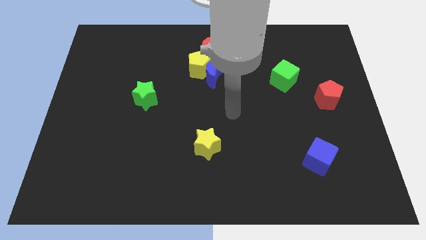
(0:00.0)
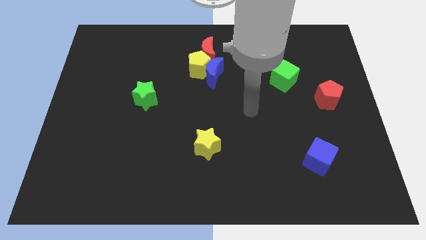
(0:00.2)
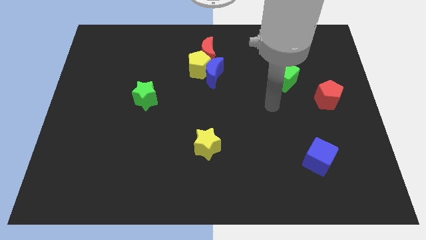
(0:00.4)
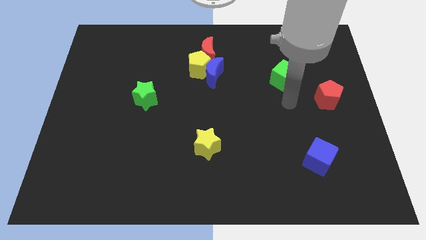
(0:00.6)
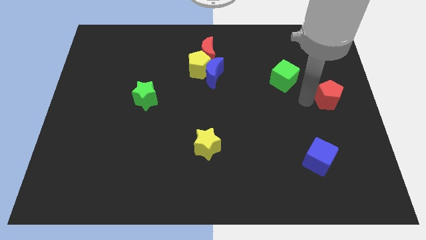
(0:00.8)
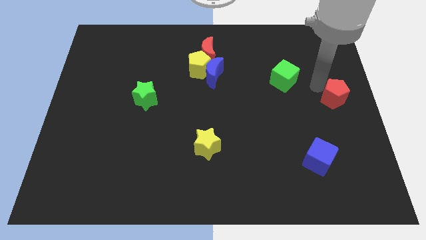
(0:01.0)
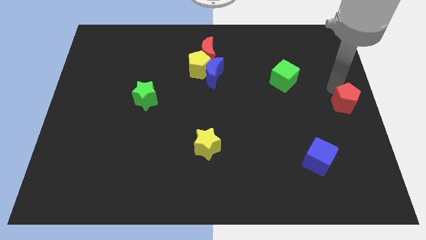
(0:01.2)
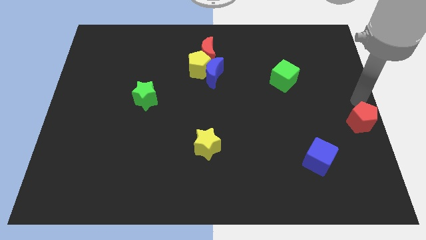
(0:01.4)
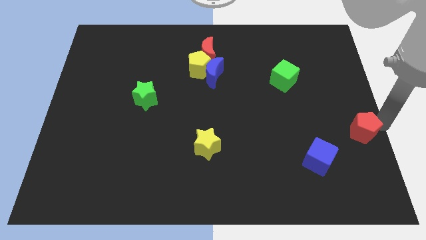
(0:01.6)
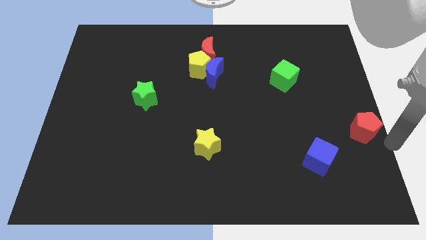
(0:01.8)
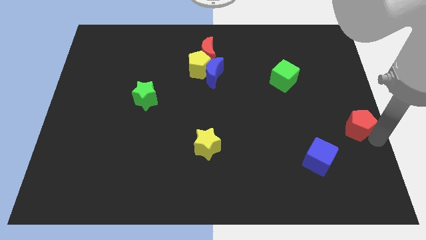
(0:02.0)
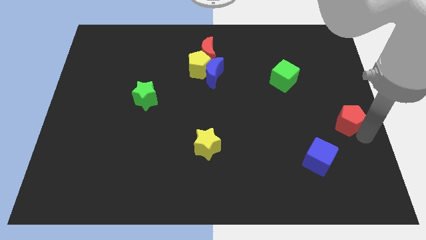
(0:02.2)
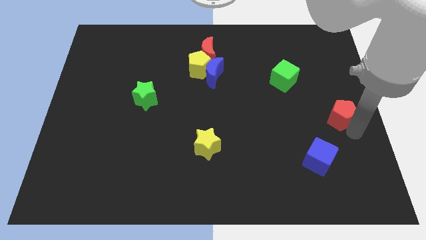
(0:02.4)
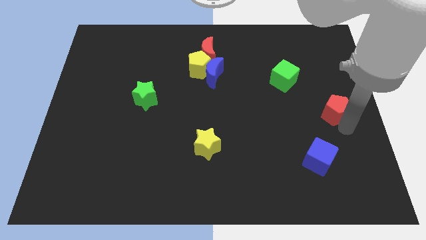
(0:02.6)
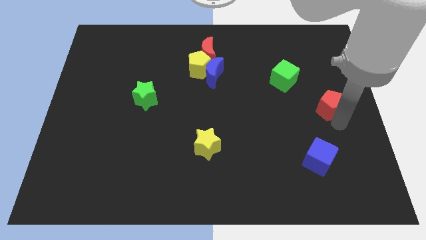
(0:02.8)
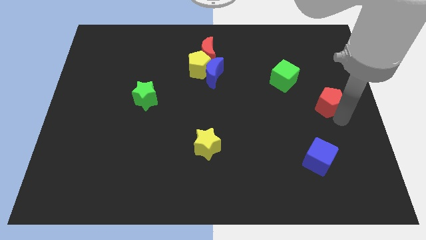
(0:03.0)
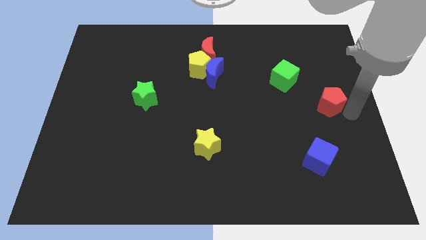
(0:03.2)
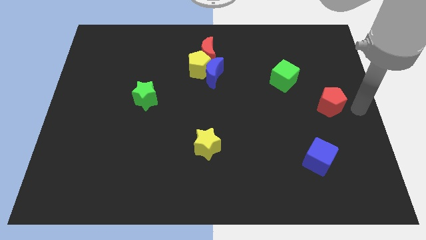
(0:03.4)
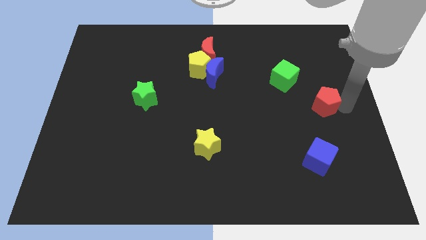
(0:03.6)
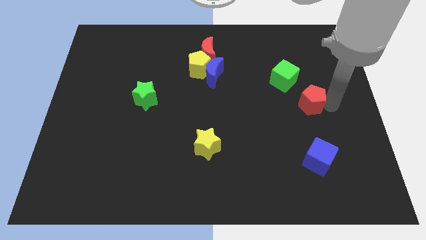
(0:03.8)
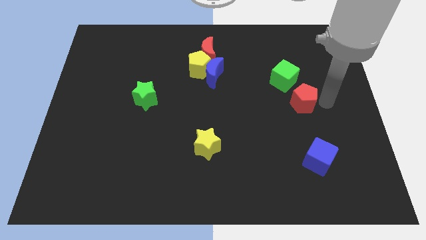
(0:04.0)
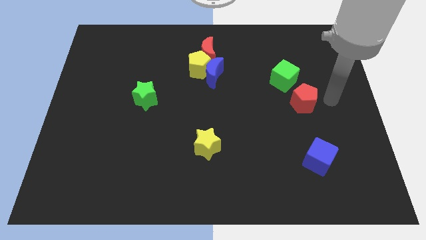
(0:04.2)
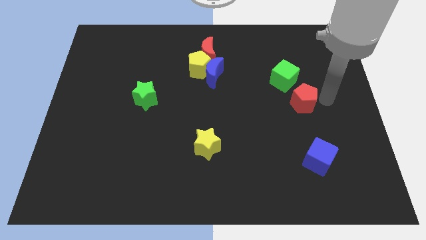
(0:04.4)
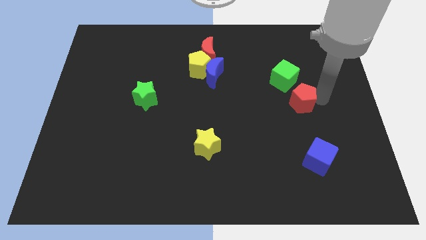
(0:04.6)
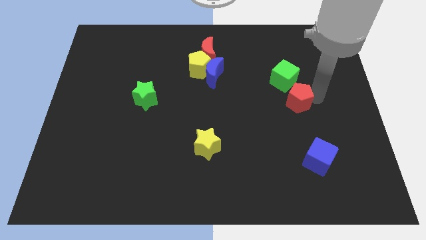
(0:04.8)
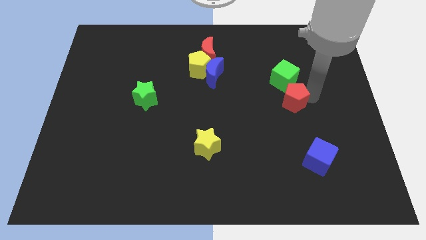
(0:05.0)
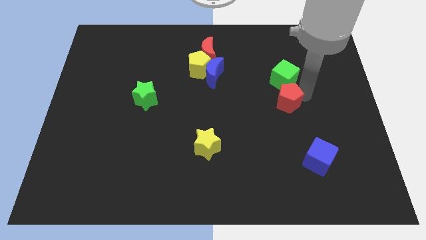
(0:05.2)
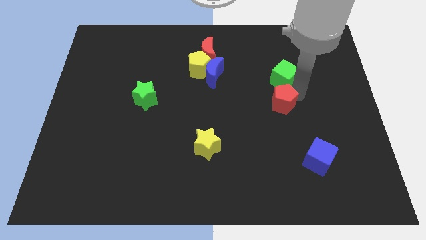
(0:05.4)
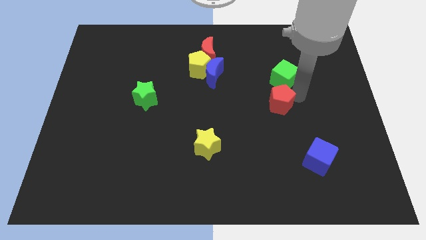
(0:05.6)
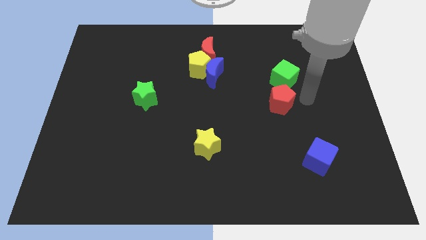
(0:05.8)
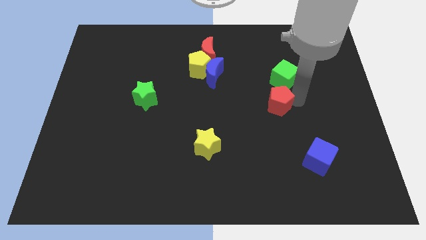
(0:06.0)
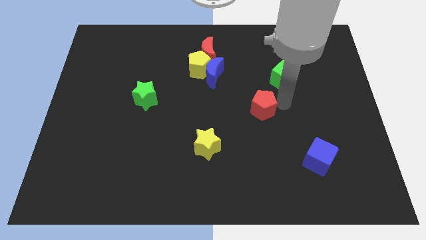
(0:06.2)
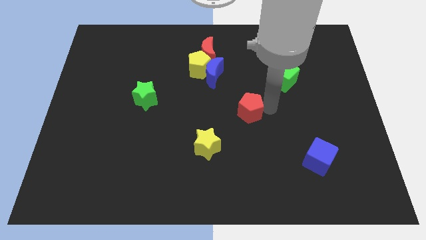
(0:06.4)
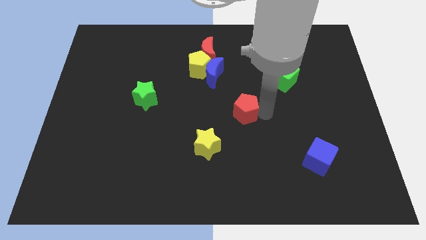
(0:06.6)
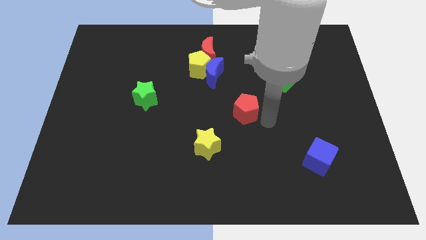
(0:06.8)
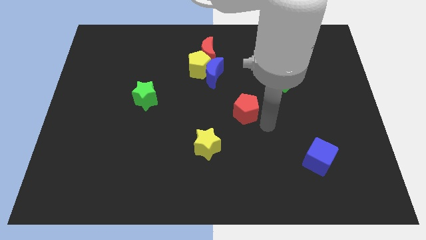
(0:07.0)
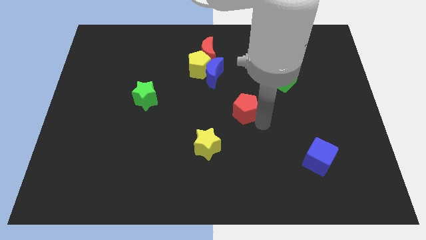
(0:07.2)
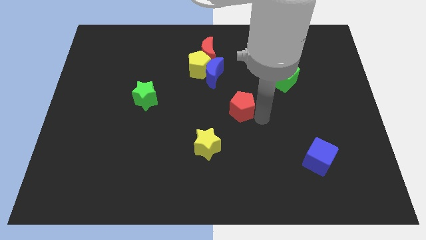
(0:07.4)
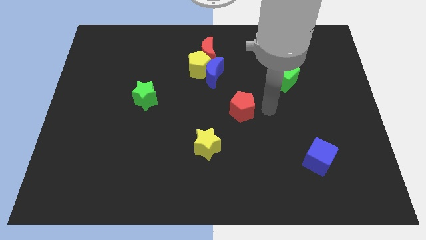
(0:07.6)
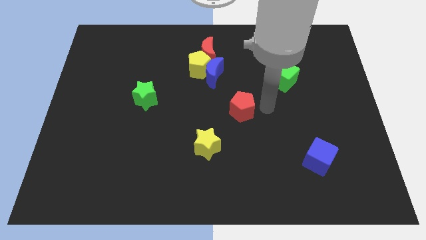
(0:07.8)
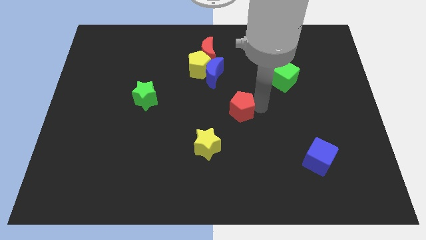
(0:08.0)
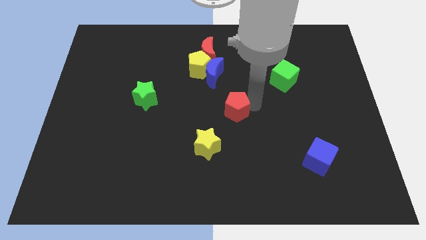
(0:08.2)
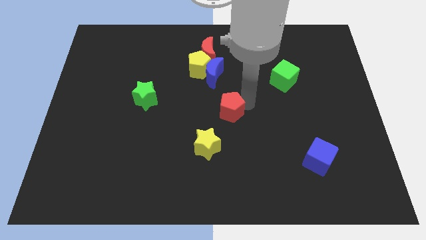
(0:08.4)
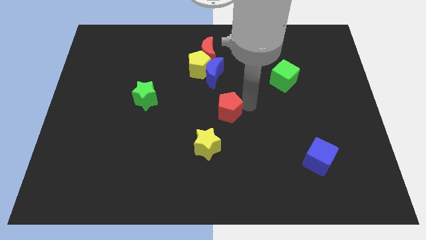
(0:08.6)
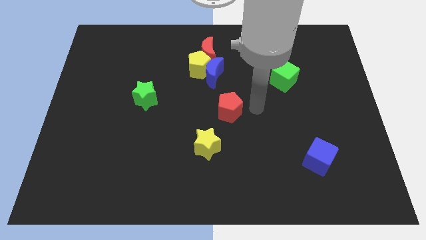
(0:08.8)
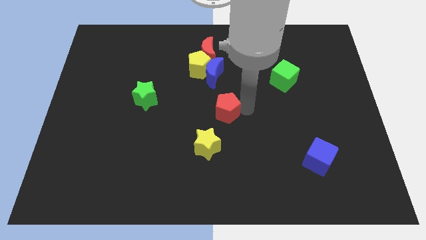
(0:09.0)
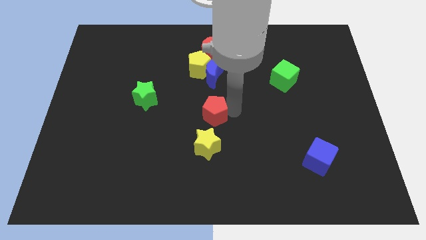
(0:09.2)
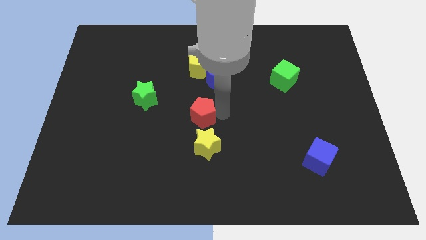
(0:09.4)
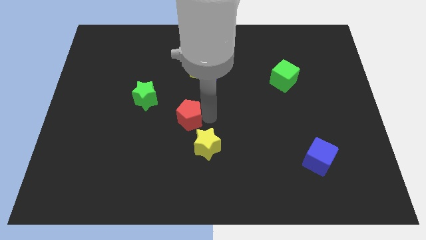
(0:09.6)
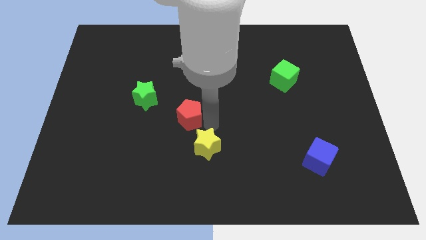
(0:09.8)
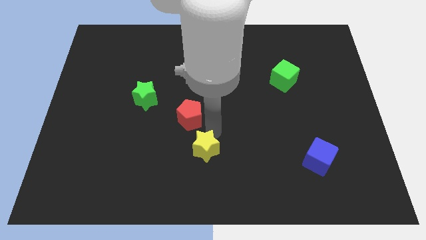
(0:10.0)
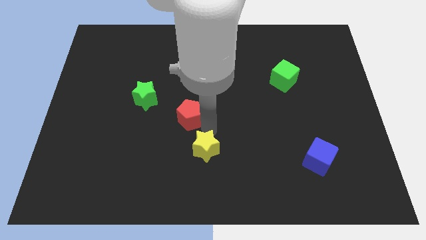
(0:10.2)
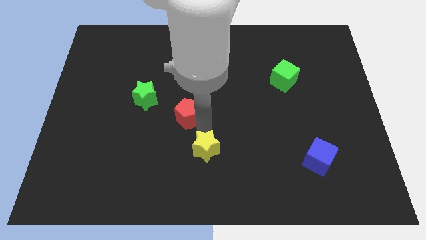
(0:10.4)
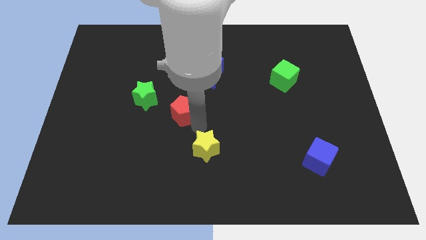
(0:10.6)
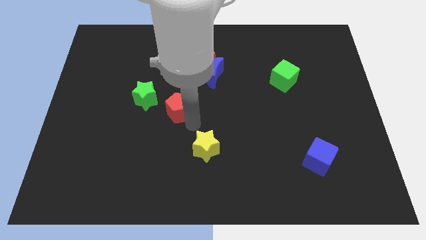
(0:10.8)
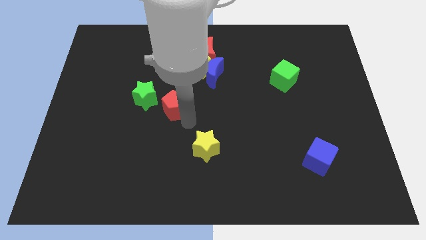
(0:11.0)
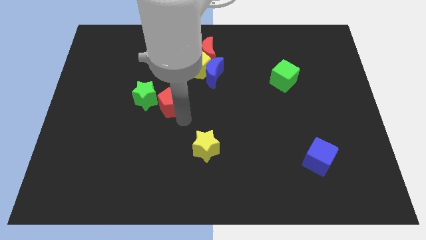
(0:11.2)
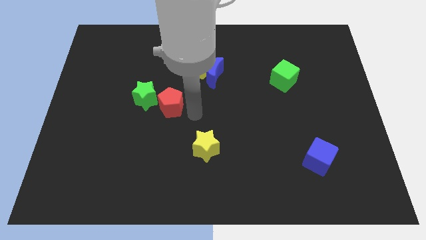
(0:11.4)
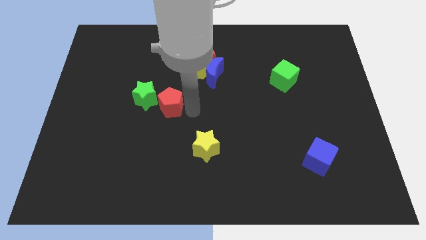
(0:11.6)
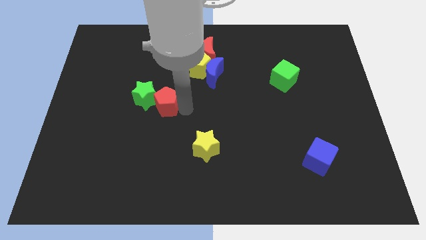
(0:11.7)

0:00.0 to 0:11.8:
slide the red pentagon to the green star

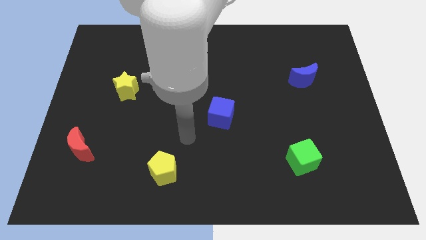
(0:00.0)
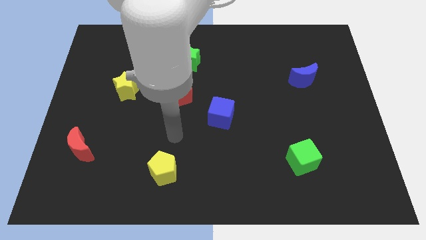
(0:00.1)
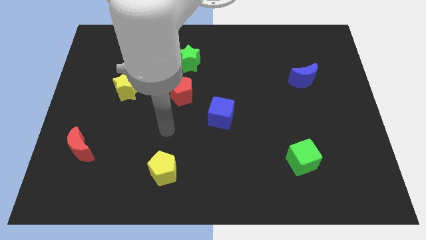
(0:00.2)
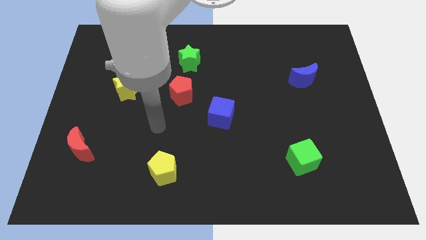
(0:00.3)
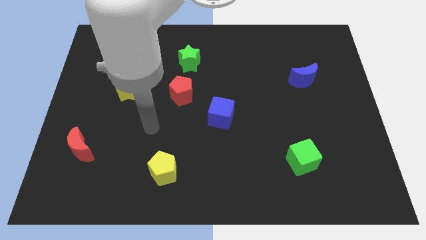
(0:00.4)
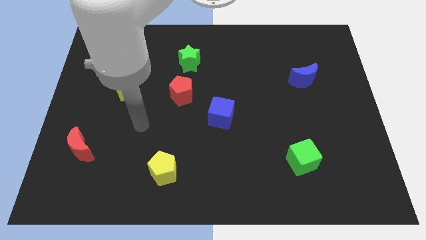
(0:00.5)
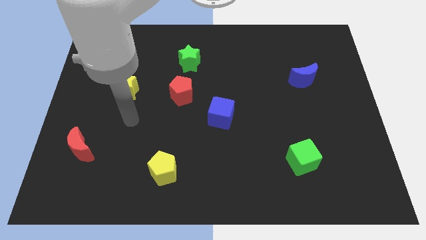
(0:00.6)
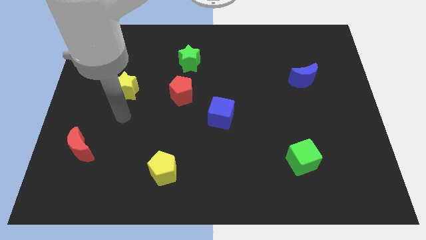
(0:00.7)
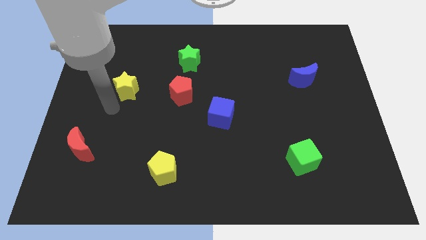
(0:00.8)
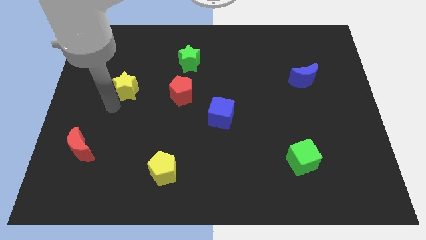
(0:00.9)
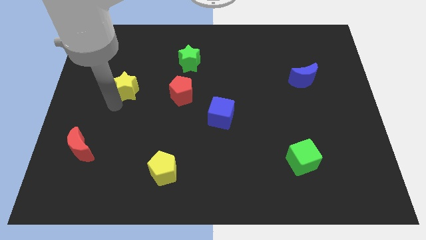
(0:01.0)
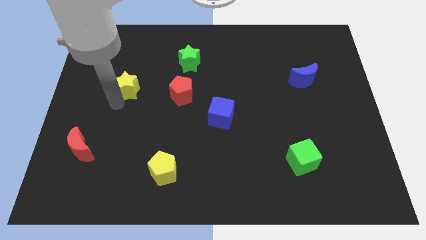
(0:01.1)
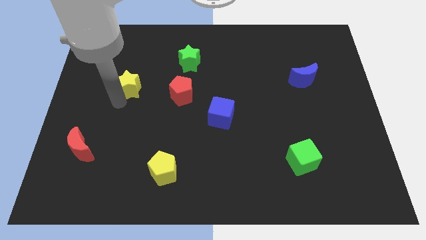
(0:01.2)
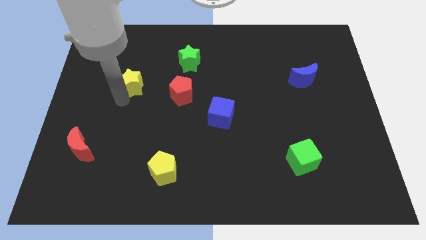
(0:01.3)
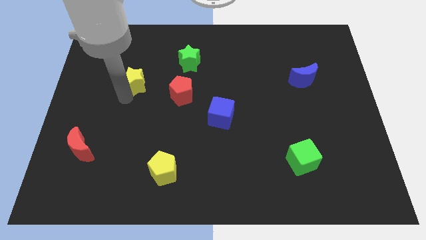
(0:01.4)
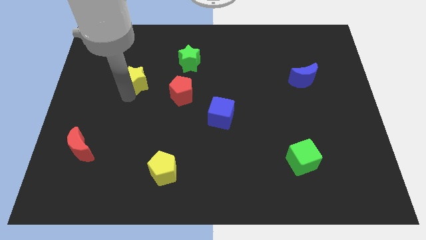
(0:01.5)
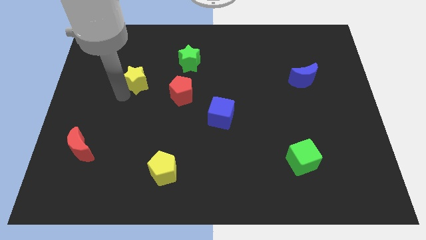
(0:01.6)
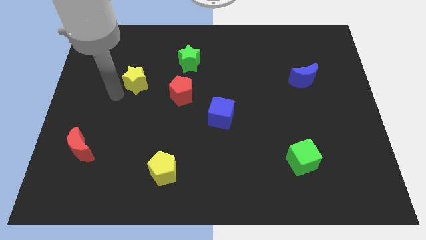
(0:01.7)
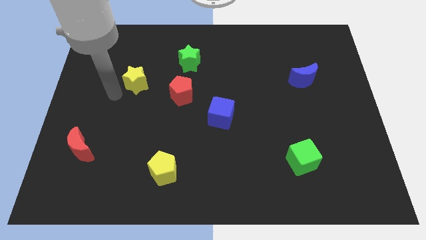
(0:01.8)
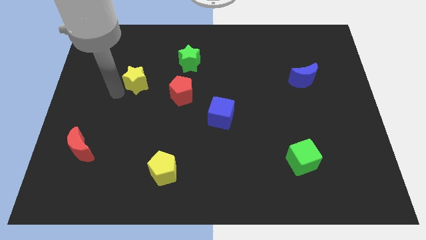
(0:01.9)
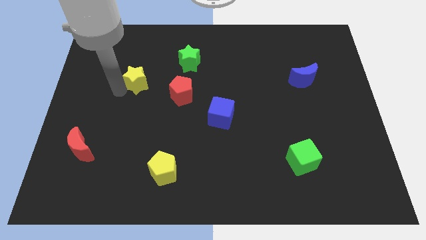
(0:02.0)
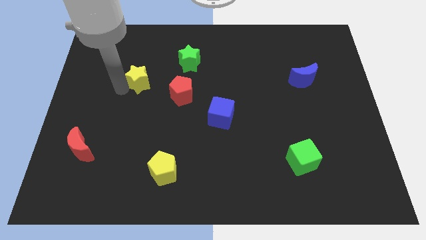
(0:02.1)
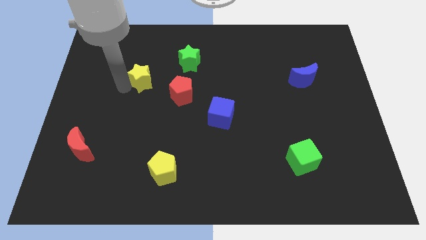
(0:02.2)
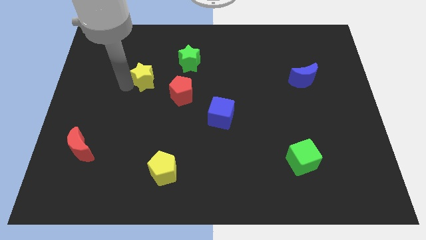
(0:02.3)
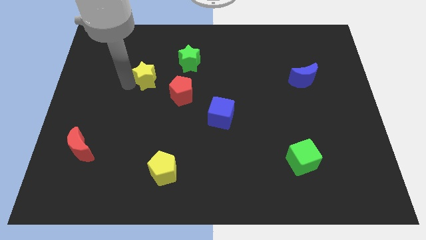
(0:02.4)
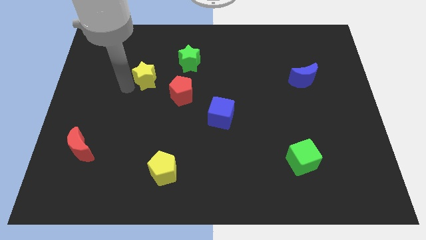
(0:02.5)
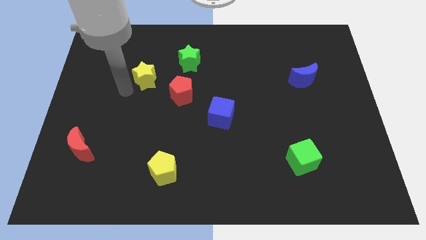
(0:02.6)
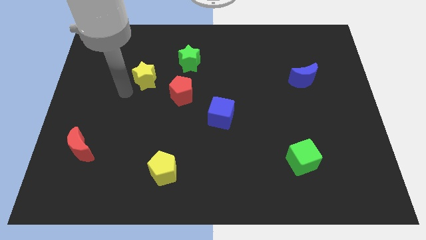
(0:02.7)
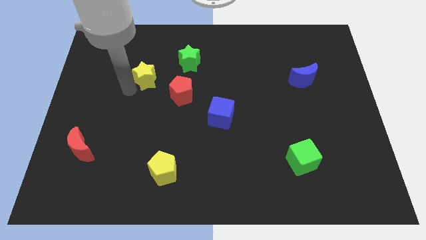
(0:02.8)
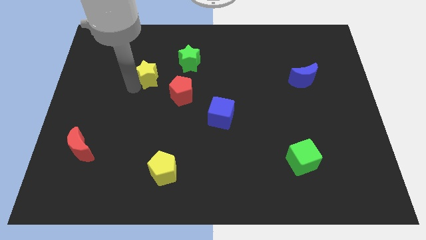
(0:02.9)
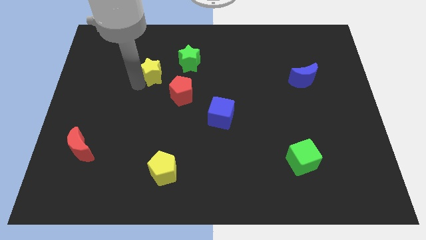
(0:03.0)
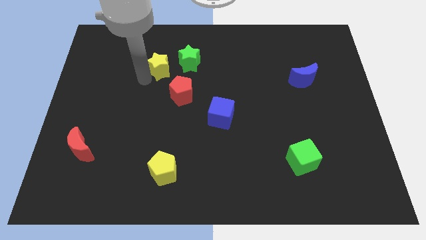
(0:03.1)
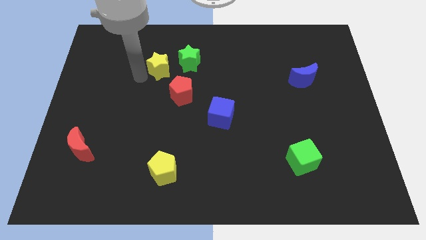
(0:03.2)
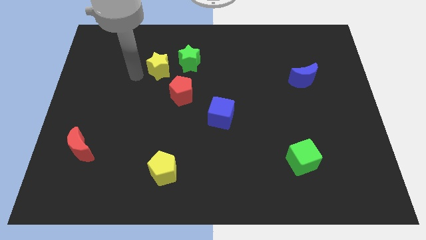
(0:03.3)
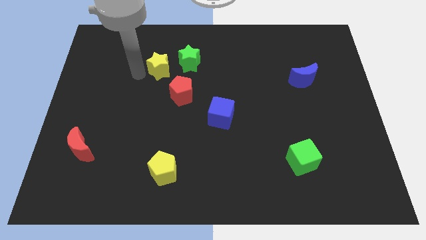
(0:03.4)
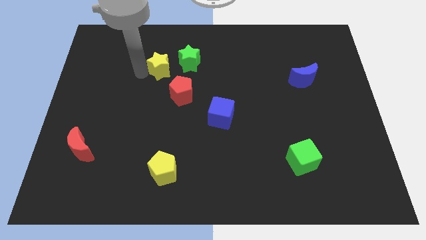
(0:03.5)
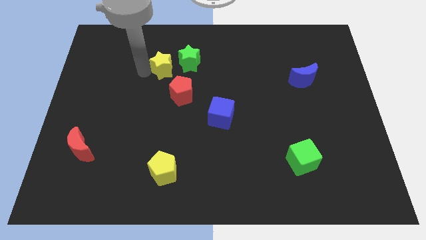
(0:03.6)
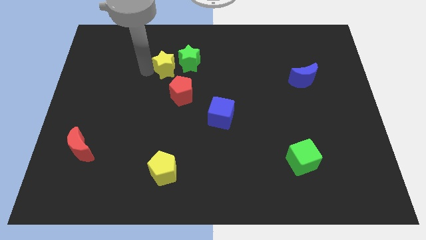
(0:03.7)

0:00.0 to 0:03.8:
push the yellow star towards the green star
